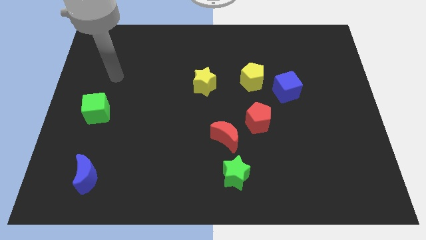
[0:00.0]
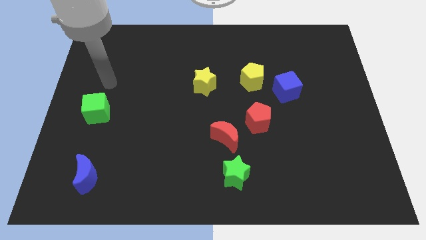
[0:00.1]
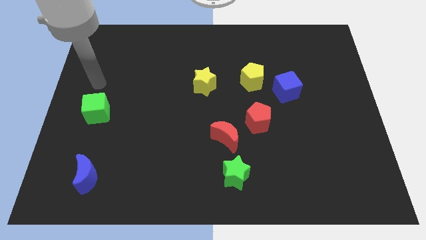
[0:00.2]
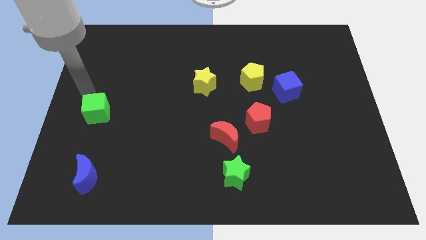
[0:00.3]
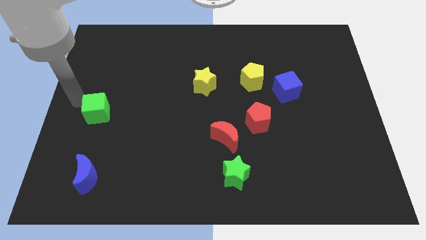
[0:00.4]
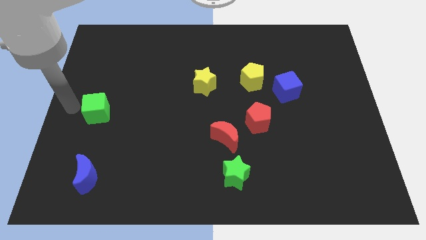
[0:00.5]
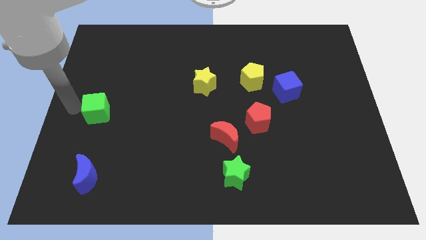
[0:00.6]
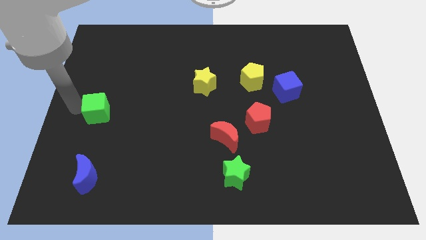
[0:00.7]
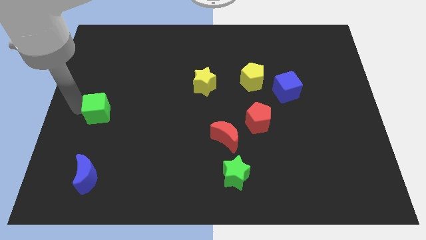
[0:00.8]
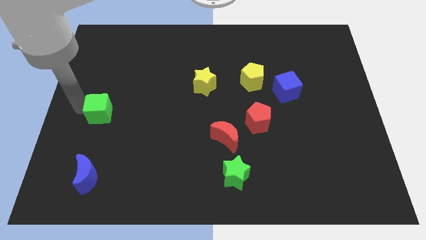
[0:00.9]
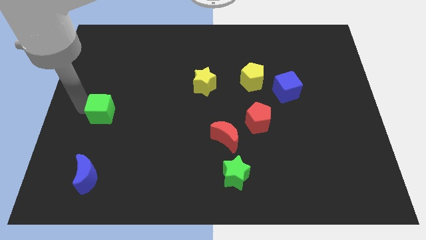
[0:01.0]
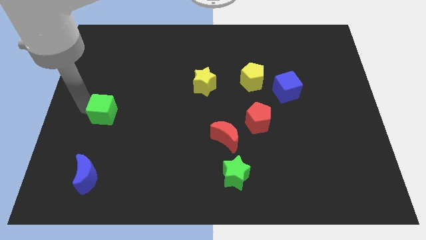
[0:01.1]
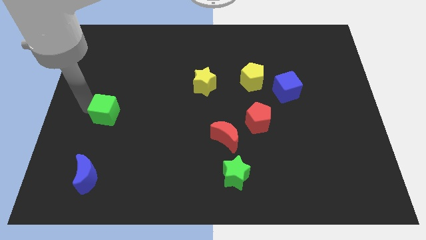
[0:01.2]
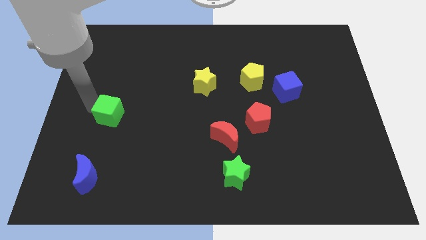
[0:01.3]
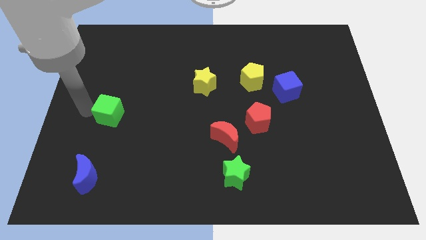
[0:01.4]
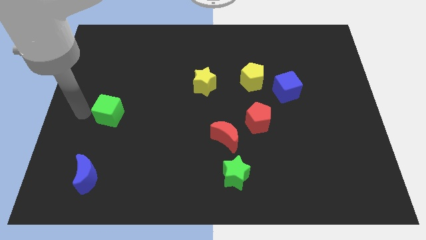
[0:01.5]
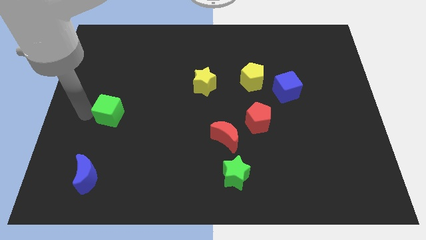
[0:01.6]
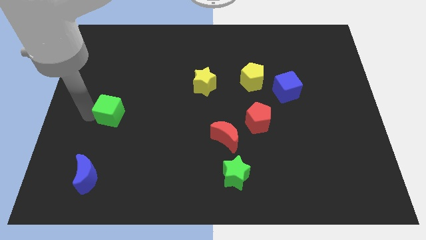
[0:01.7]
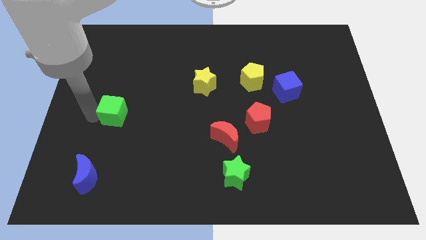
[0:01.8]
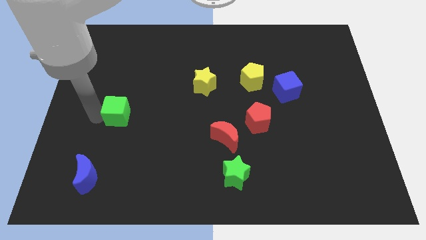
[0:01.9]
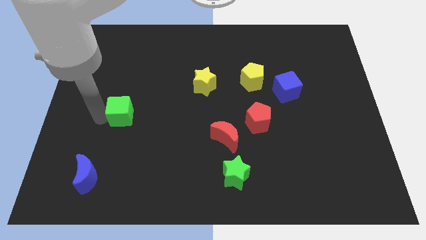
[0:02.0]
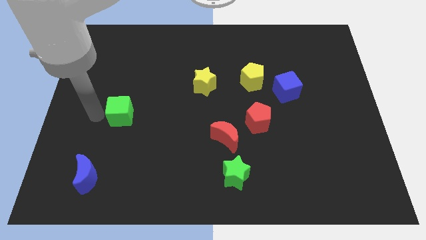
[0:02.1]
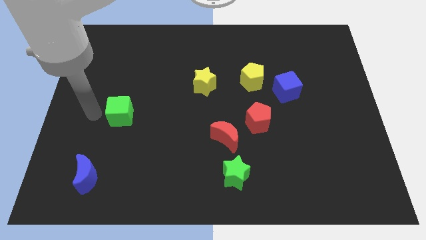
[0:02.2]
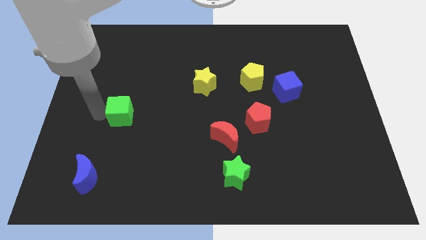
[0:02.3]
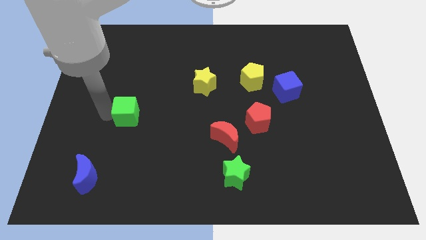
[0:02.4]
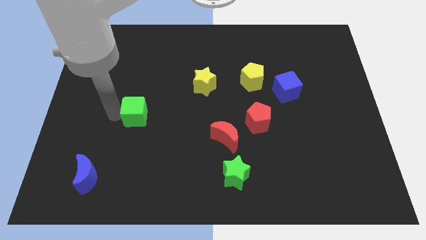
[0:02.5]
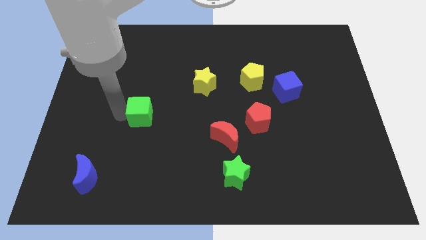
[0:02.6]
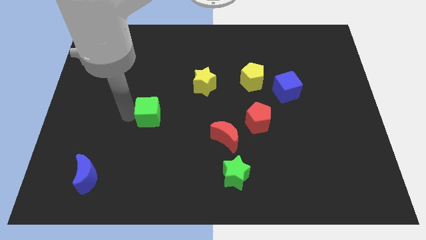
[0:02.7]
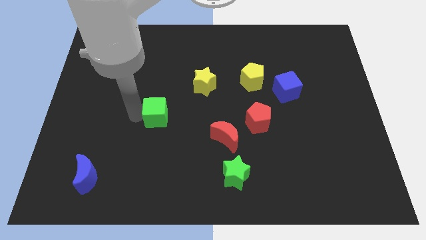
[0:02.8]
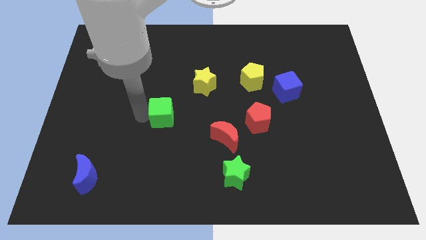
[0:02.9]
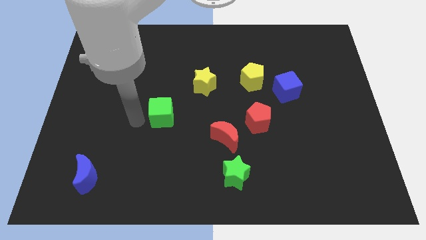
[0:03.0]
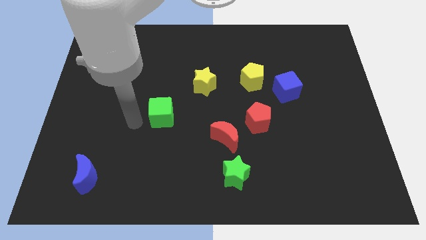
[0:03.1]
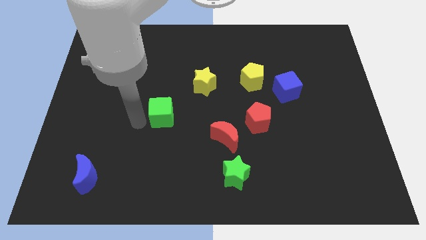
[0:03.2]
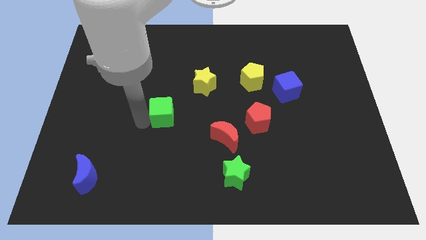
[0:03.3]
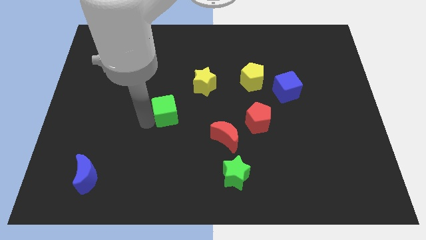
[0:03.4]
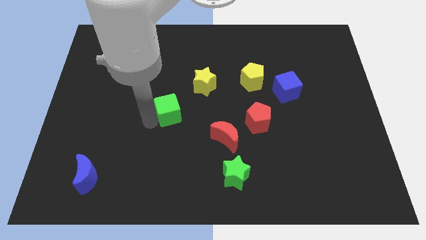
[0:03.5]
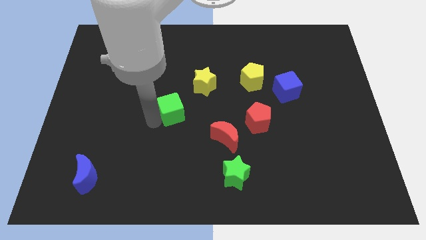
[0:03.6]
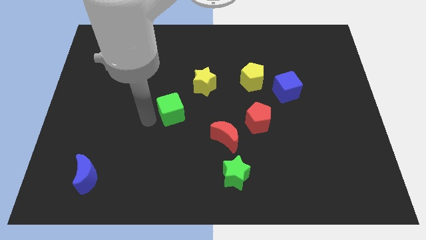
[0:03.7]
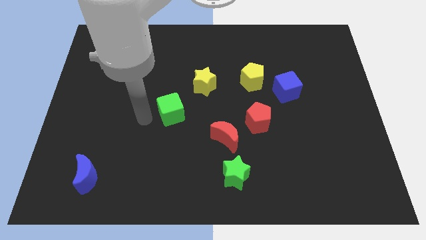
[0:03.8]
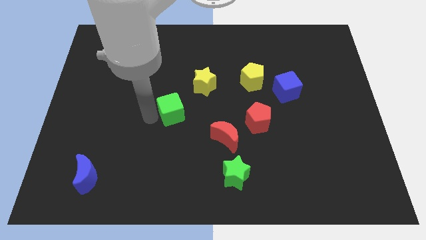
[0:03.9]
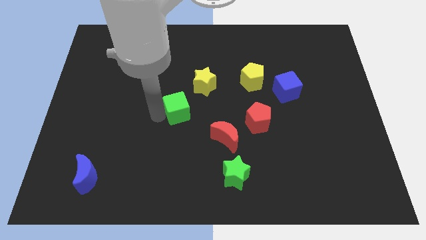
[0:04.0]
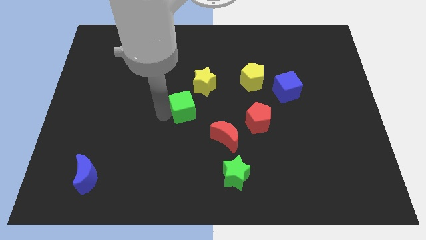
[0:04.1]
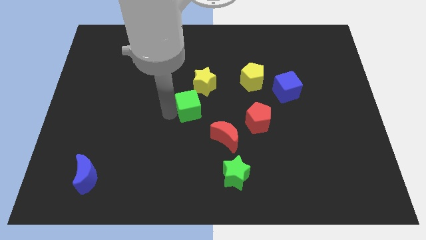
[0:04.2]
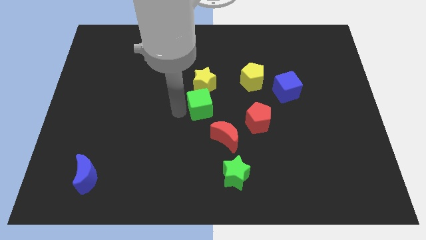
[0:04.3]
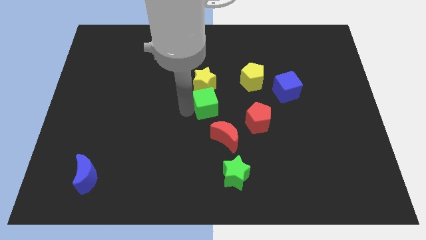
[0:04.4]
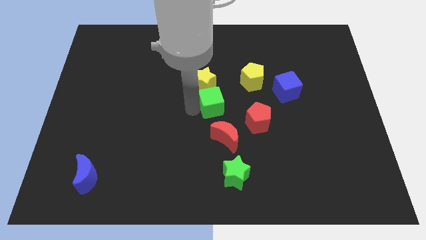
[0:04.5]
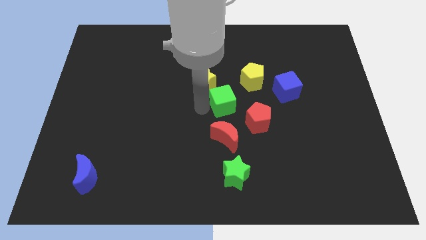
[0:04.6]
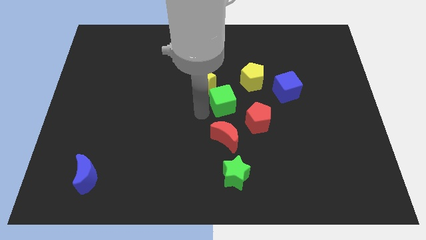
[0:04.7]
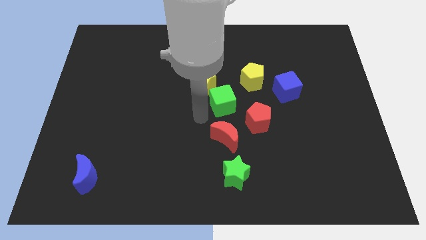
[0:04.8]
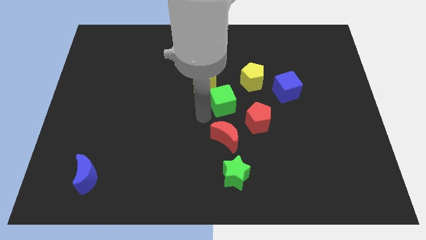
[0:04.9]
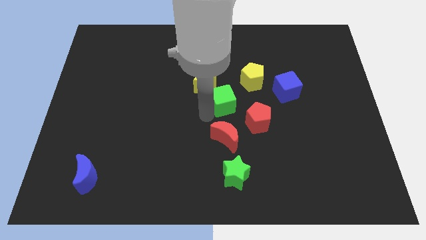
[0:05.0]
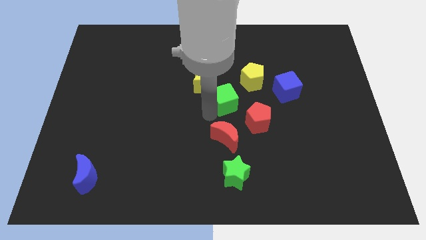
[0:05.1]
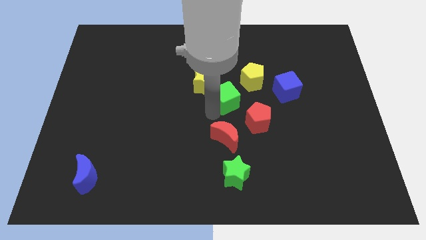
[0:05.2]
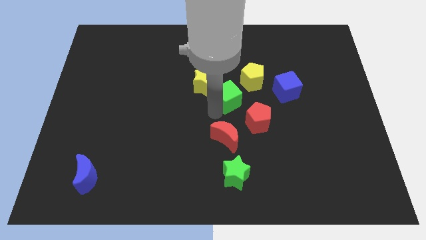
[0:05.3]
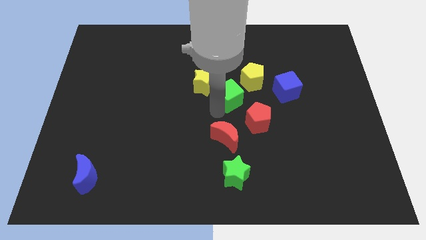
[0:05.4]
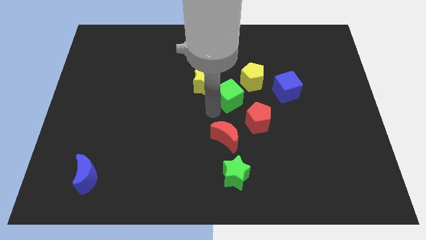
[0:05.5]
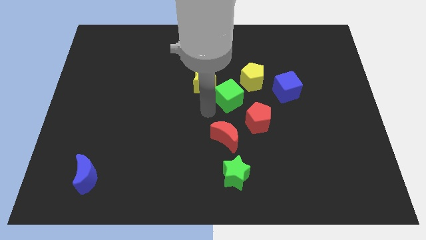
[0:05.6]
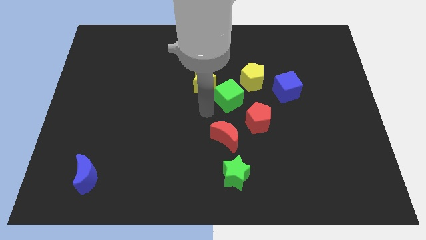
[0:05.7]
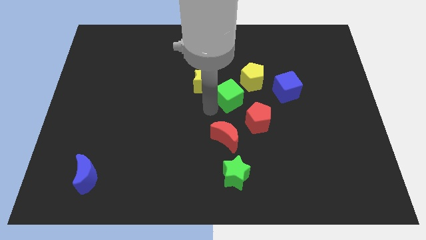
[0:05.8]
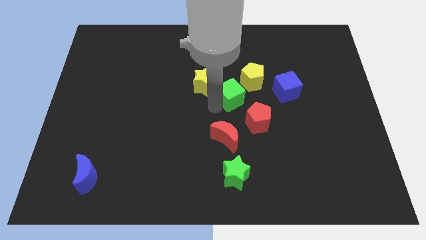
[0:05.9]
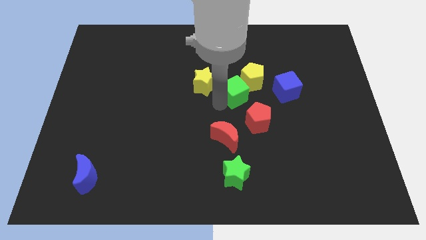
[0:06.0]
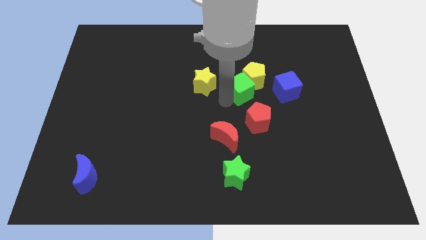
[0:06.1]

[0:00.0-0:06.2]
move the green cube close to the yellow pentagon

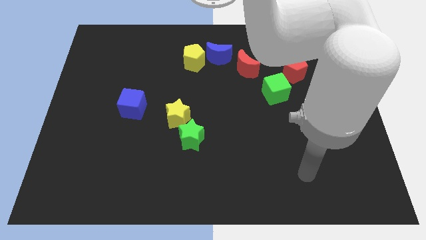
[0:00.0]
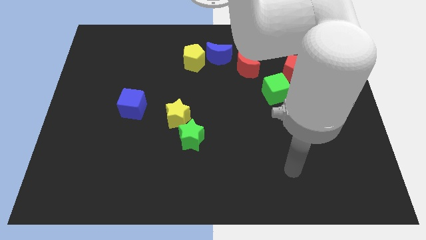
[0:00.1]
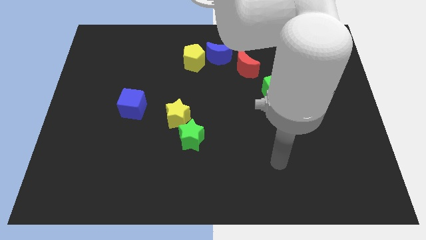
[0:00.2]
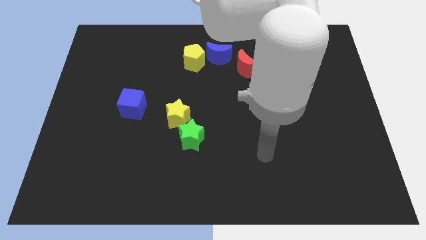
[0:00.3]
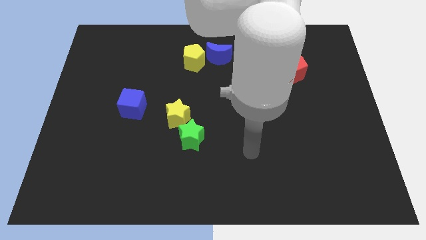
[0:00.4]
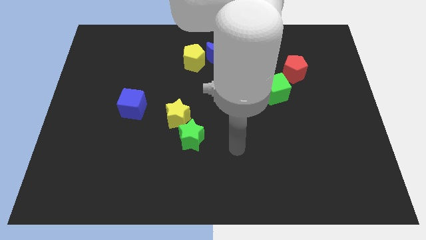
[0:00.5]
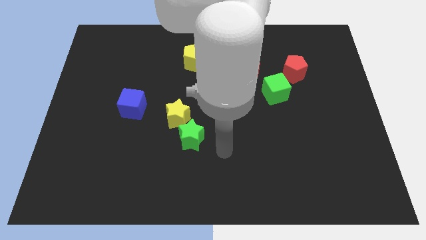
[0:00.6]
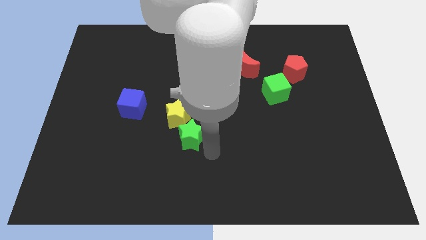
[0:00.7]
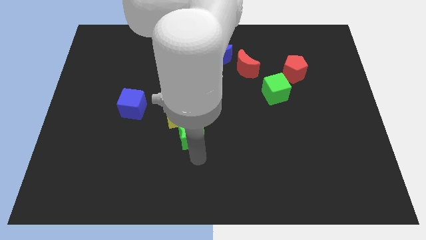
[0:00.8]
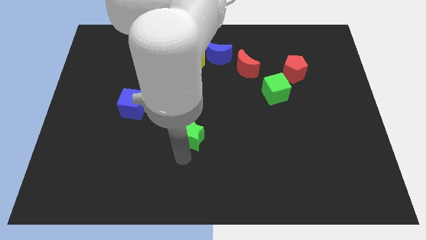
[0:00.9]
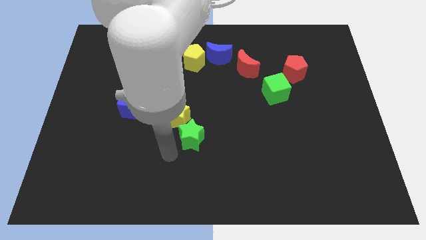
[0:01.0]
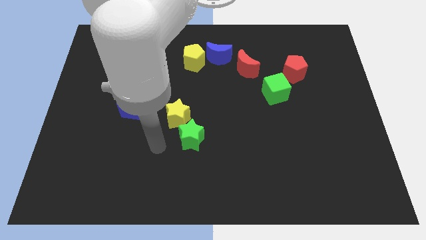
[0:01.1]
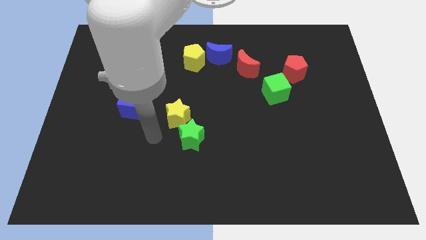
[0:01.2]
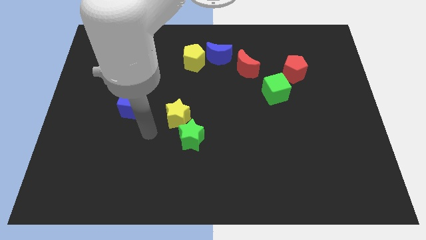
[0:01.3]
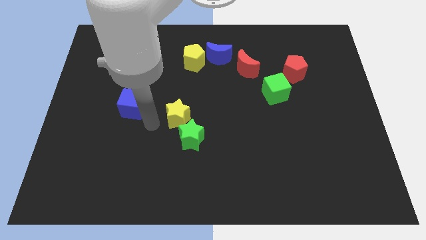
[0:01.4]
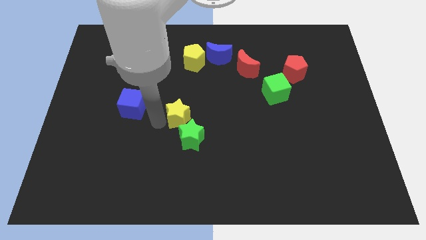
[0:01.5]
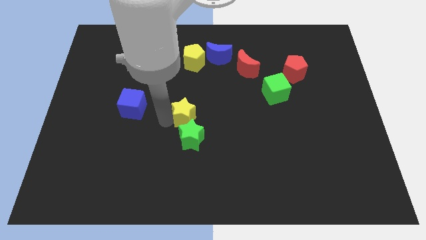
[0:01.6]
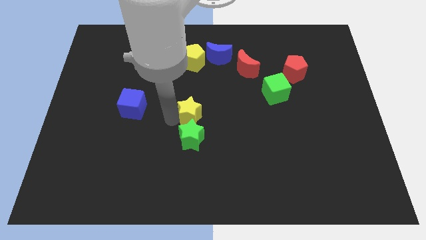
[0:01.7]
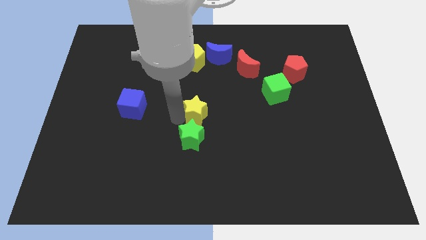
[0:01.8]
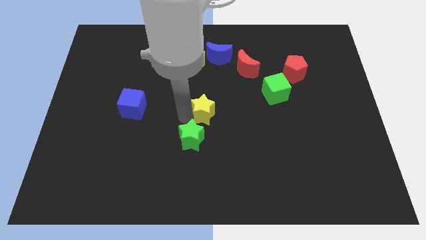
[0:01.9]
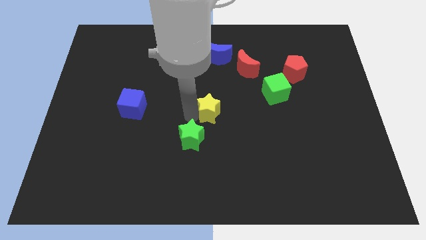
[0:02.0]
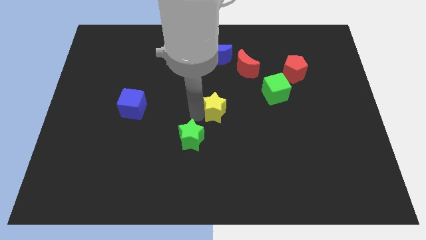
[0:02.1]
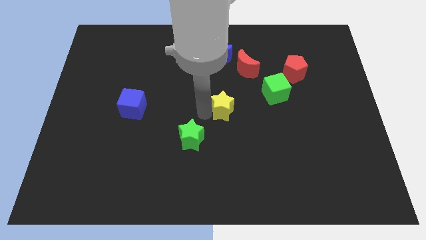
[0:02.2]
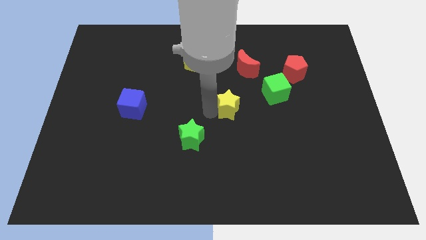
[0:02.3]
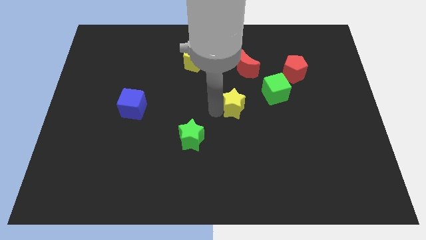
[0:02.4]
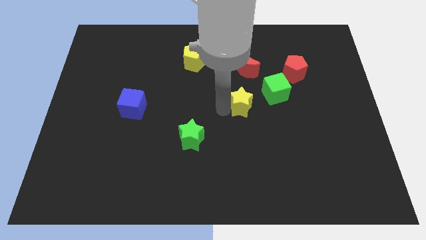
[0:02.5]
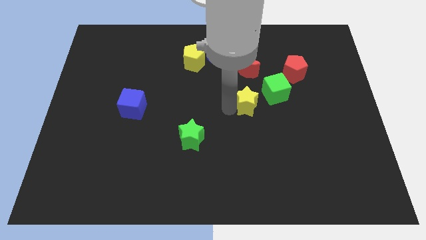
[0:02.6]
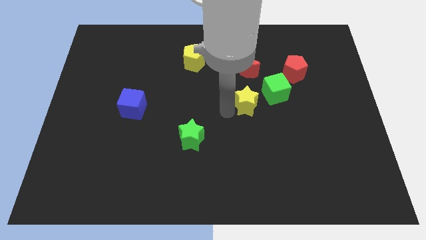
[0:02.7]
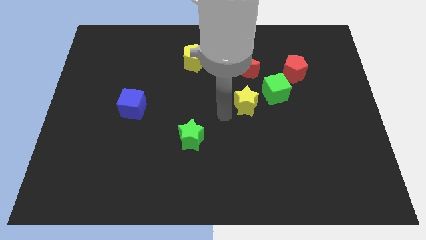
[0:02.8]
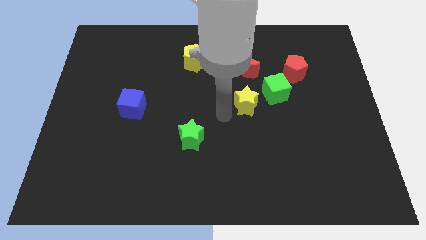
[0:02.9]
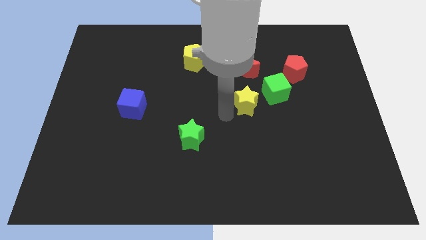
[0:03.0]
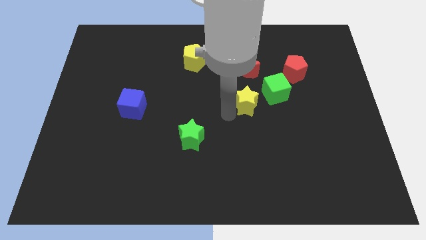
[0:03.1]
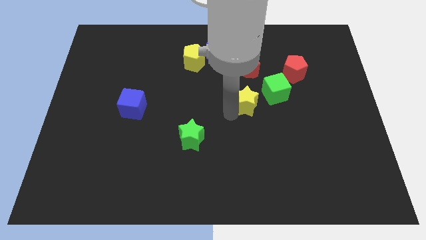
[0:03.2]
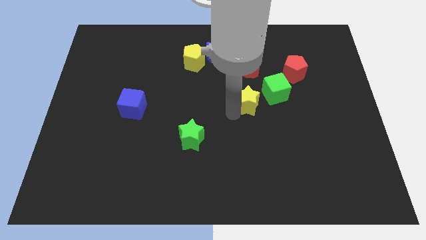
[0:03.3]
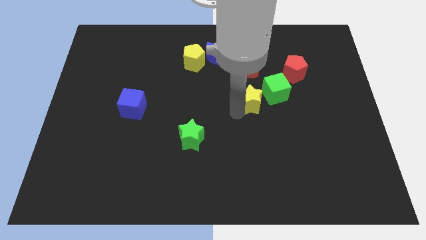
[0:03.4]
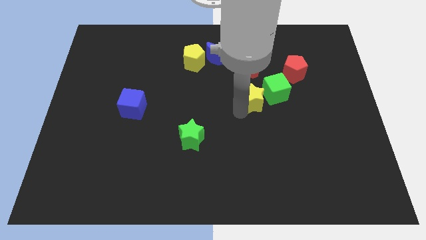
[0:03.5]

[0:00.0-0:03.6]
put the yellow star next to the green cube
